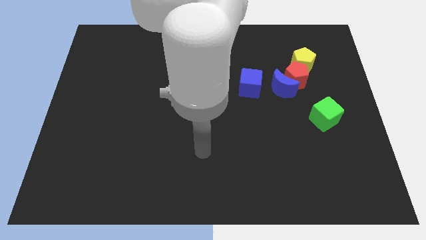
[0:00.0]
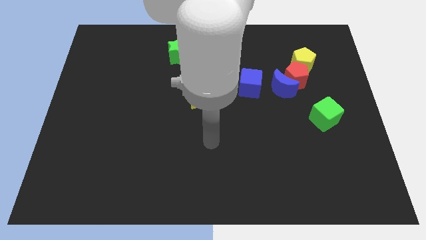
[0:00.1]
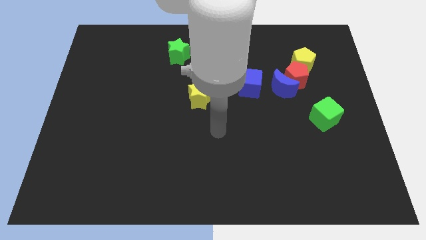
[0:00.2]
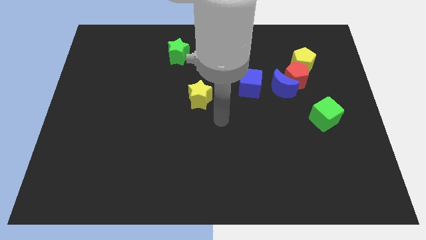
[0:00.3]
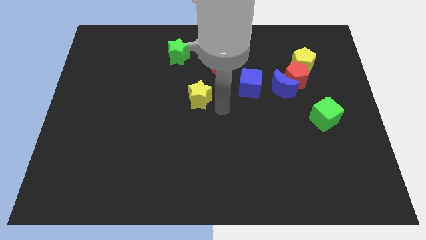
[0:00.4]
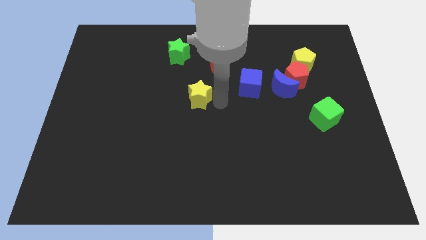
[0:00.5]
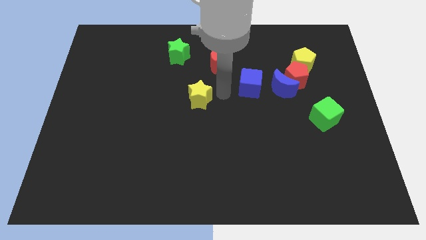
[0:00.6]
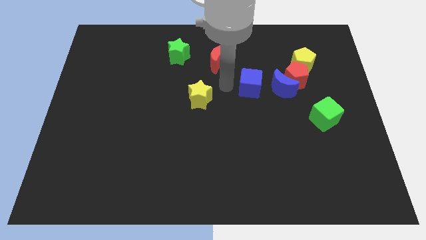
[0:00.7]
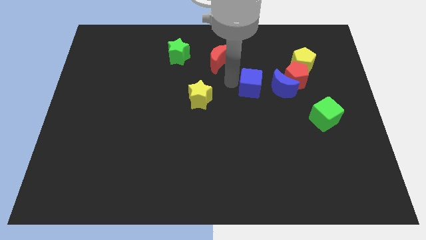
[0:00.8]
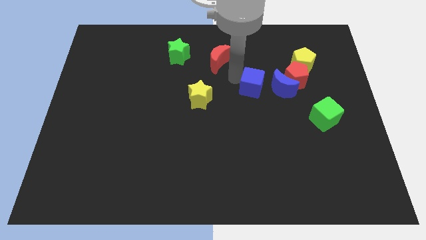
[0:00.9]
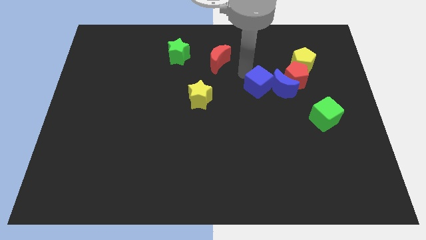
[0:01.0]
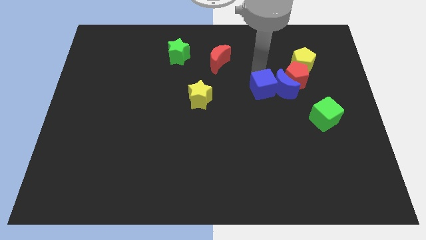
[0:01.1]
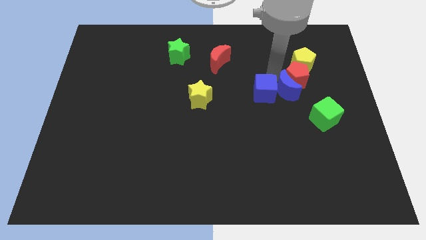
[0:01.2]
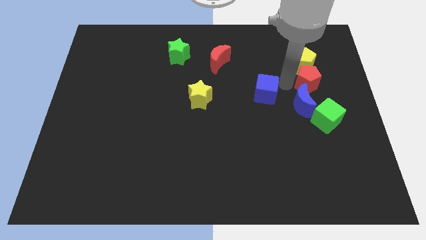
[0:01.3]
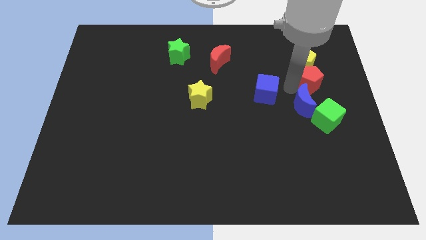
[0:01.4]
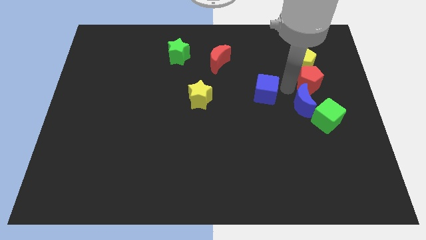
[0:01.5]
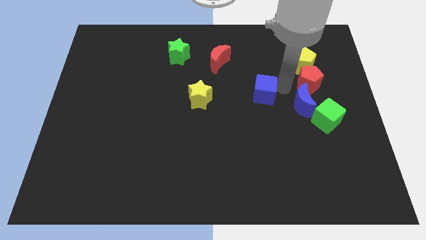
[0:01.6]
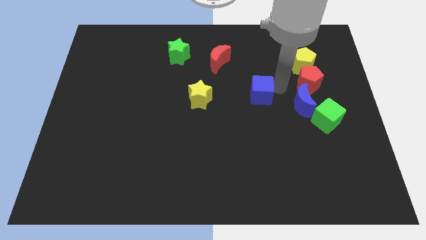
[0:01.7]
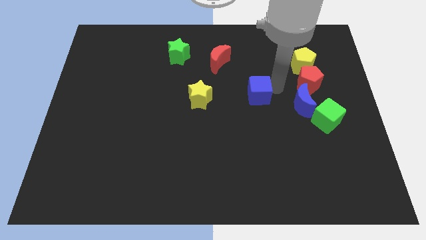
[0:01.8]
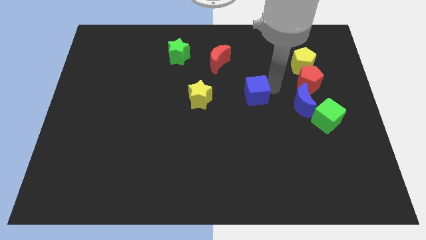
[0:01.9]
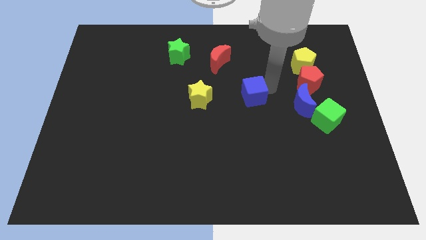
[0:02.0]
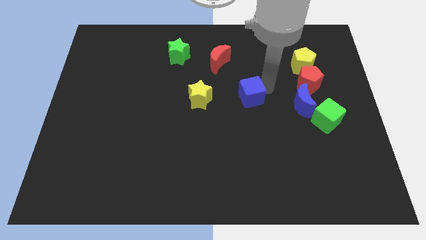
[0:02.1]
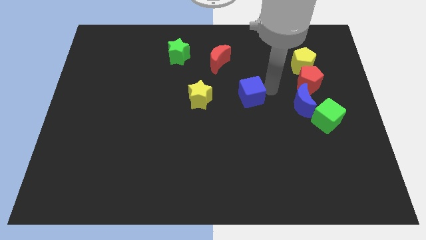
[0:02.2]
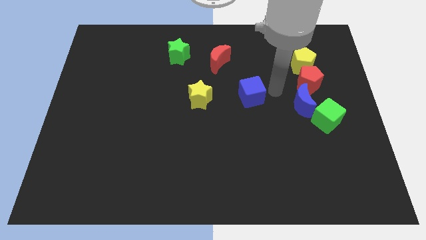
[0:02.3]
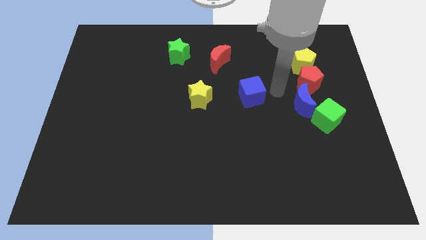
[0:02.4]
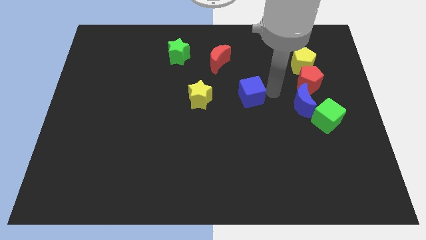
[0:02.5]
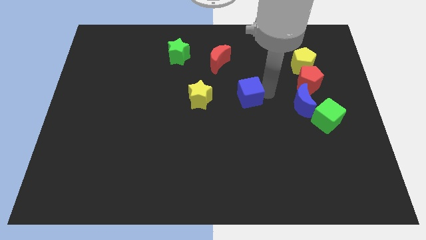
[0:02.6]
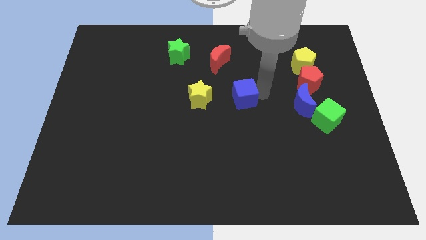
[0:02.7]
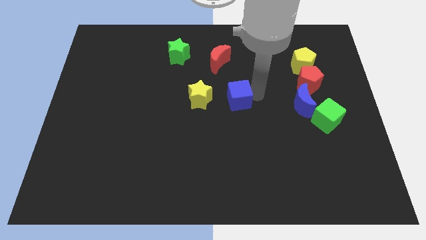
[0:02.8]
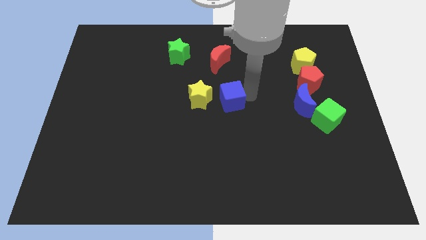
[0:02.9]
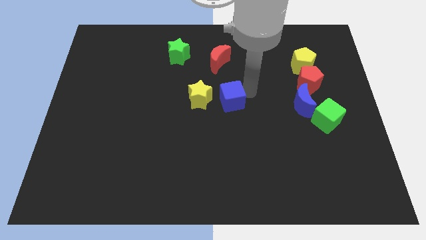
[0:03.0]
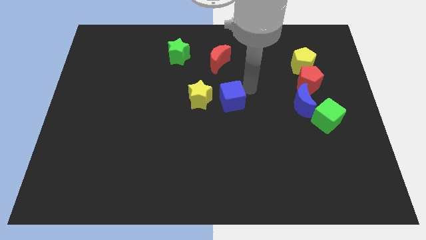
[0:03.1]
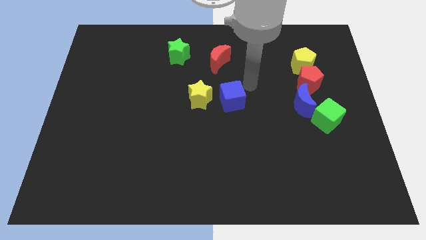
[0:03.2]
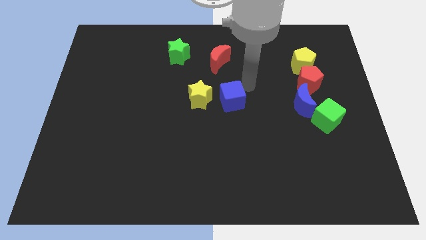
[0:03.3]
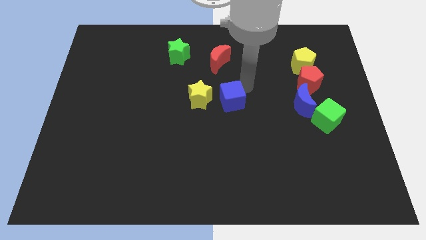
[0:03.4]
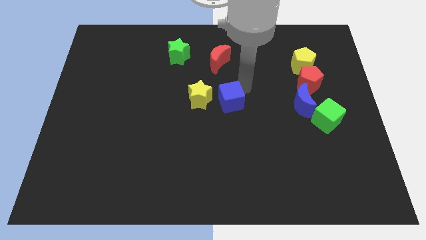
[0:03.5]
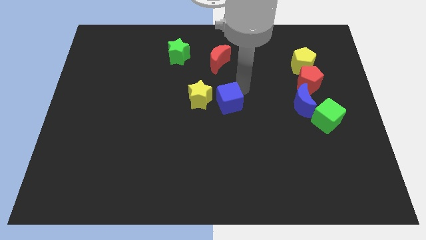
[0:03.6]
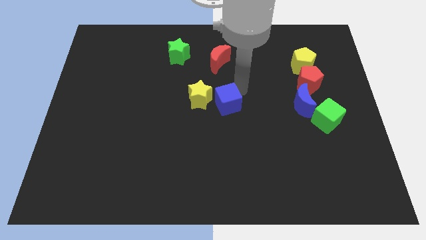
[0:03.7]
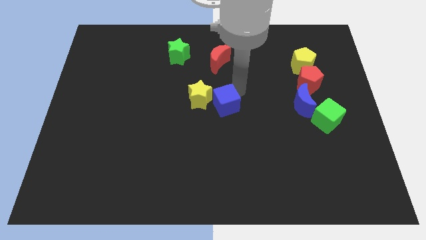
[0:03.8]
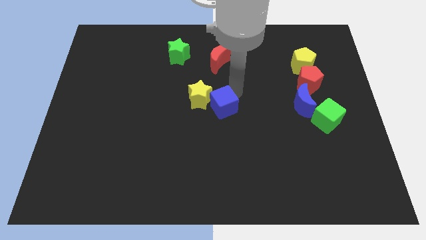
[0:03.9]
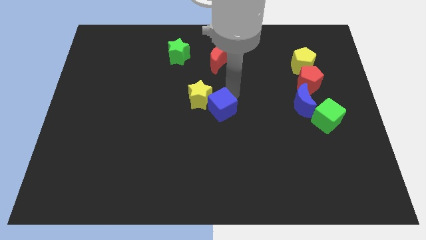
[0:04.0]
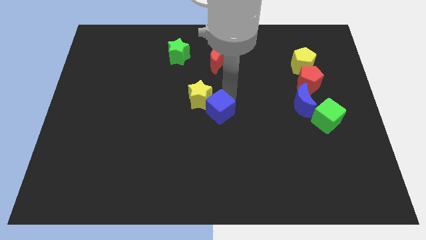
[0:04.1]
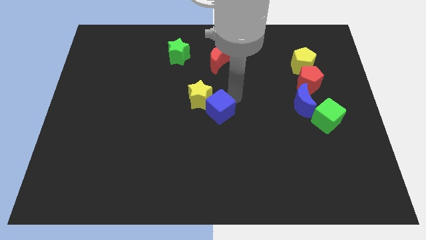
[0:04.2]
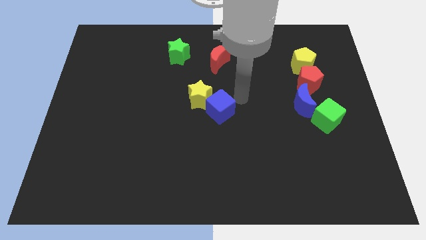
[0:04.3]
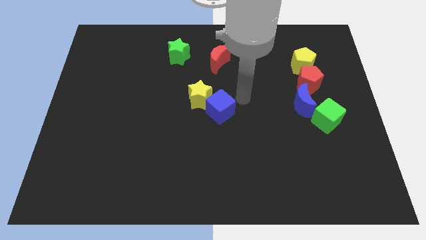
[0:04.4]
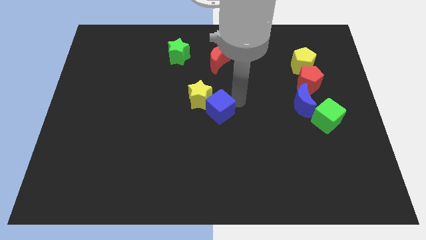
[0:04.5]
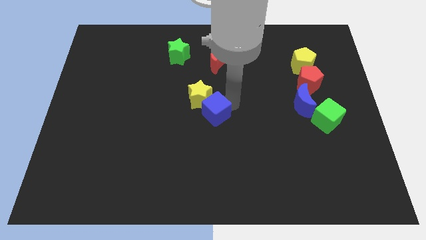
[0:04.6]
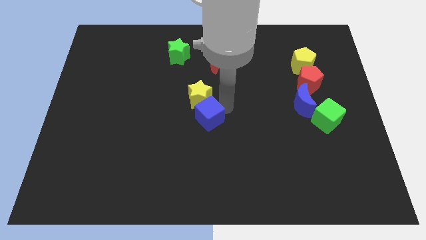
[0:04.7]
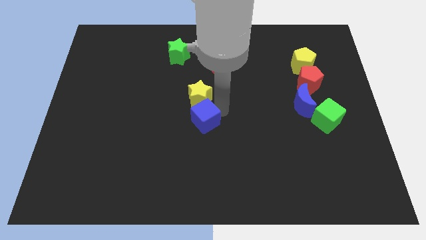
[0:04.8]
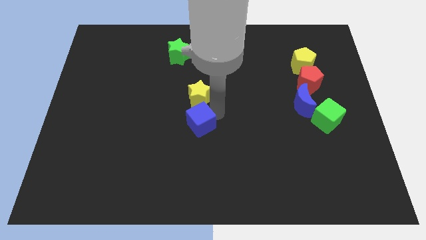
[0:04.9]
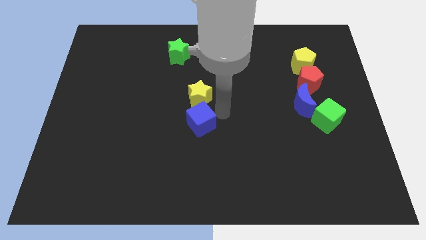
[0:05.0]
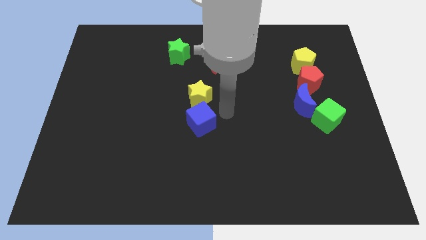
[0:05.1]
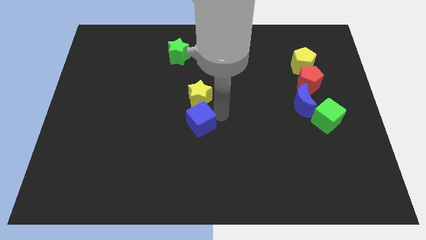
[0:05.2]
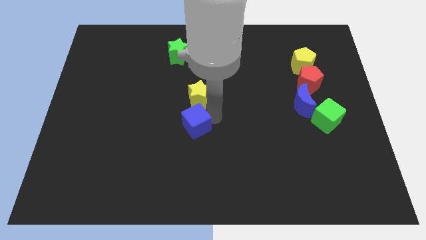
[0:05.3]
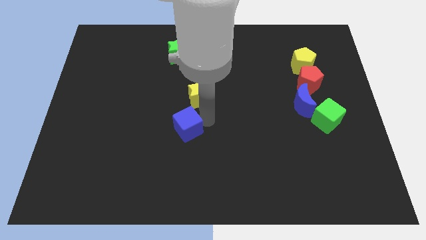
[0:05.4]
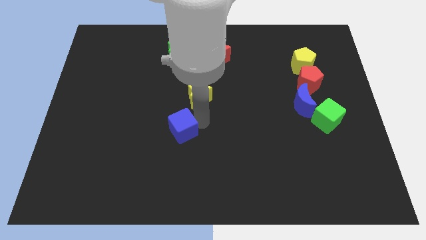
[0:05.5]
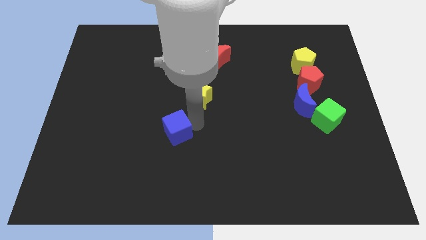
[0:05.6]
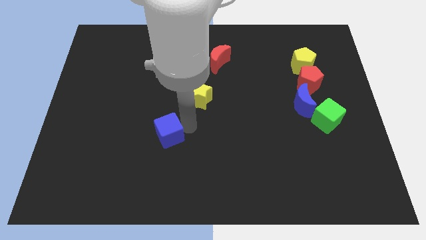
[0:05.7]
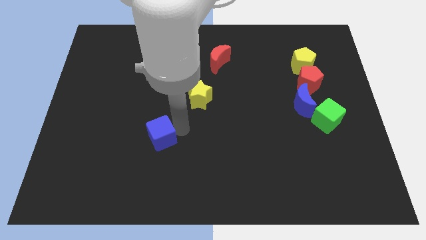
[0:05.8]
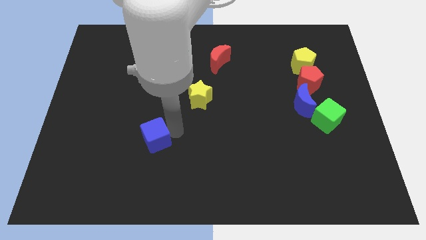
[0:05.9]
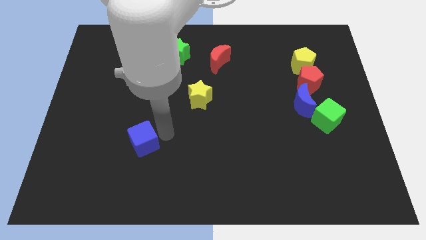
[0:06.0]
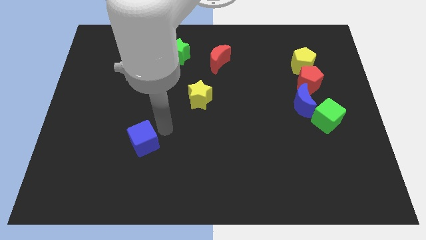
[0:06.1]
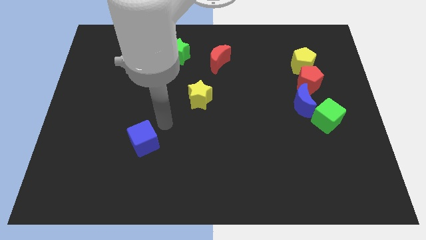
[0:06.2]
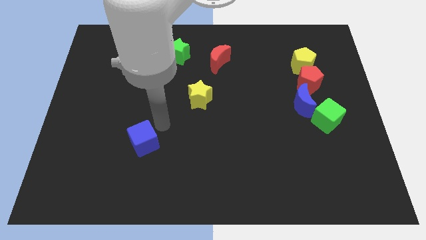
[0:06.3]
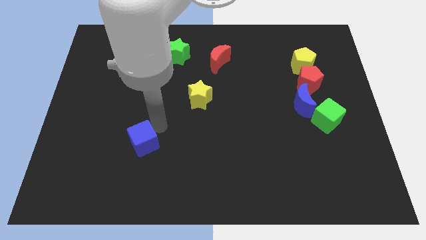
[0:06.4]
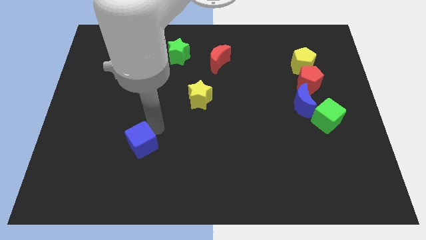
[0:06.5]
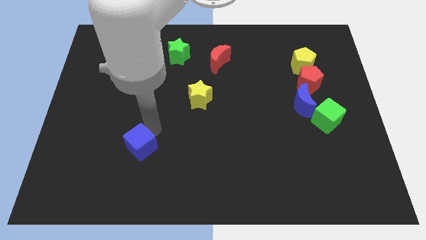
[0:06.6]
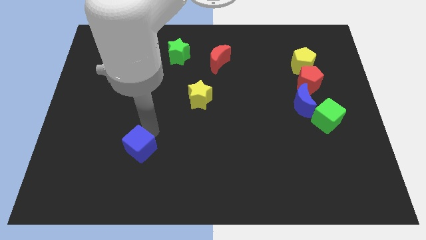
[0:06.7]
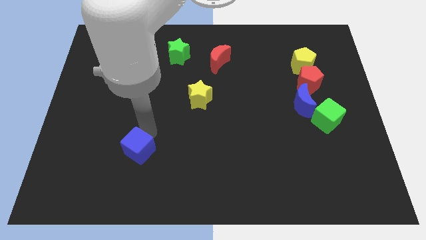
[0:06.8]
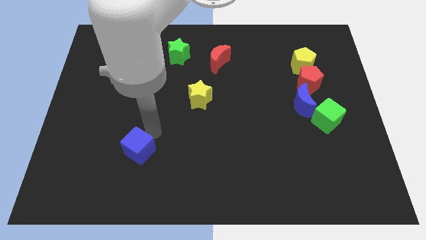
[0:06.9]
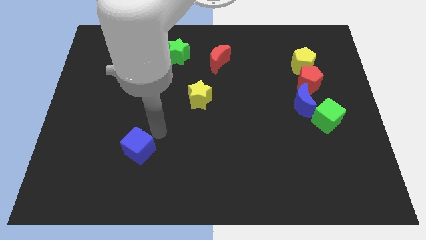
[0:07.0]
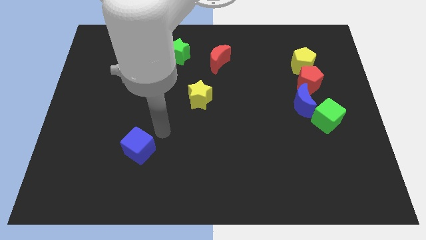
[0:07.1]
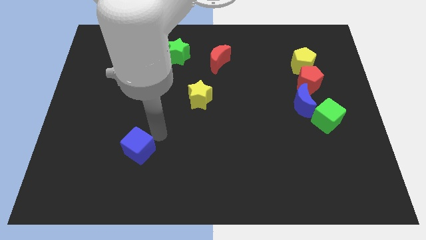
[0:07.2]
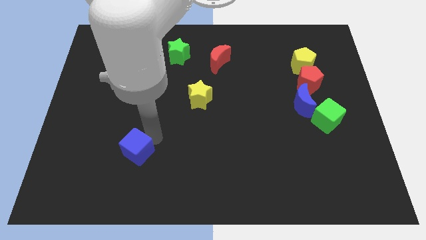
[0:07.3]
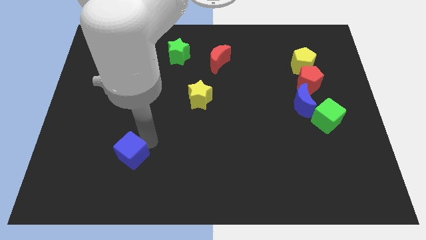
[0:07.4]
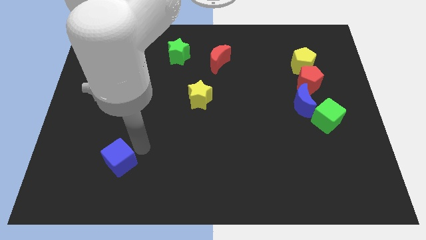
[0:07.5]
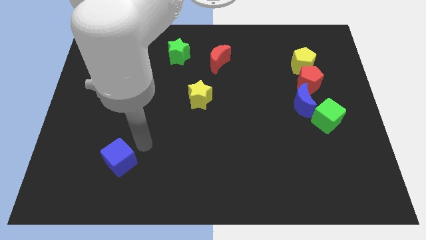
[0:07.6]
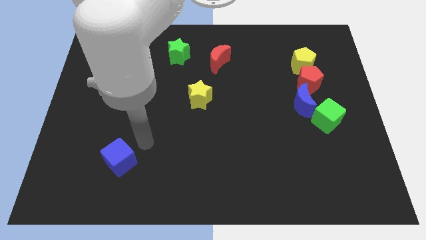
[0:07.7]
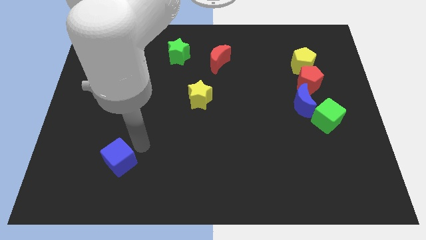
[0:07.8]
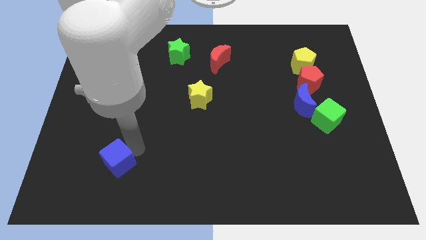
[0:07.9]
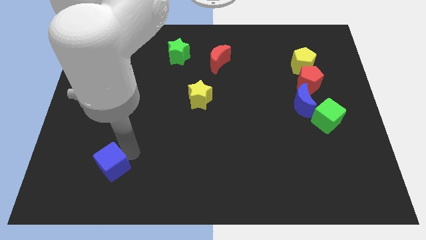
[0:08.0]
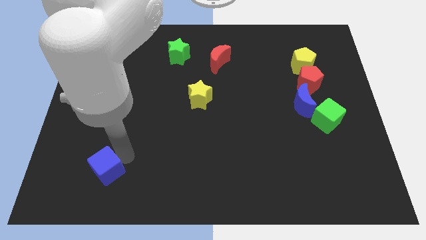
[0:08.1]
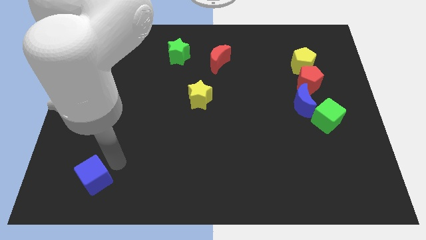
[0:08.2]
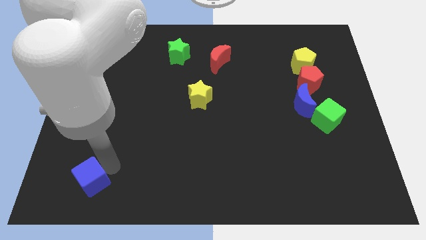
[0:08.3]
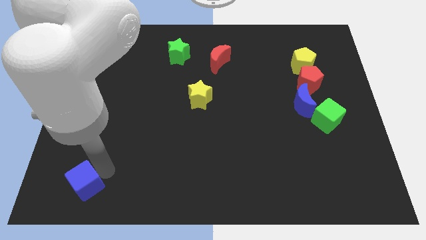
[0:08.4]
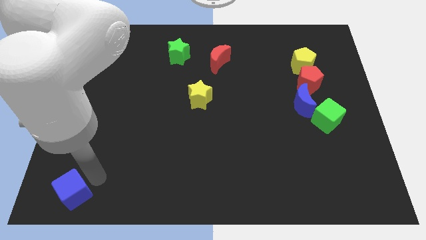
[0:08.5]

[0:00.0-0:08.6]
slide the blue cube to the bottom left of the board
